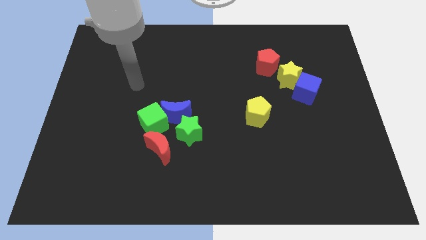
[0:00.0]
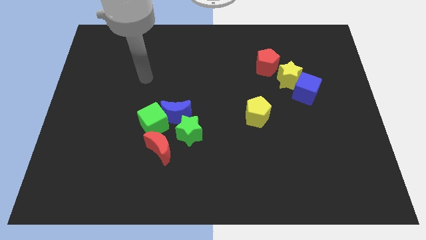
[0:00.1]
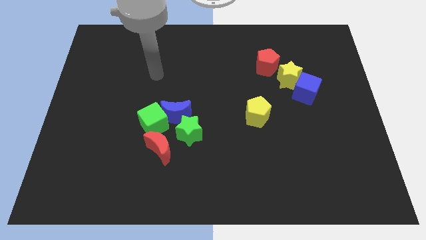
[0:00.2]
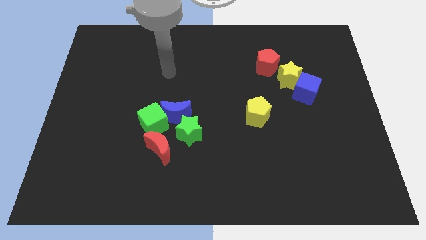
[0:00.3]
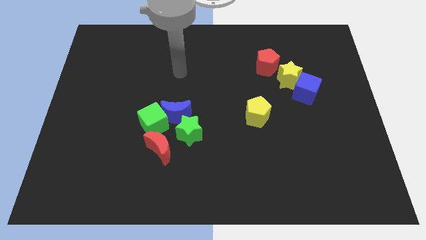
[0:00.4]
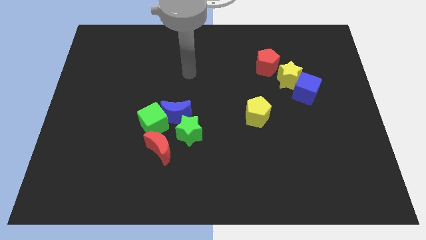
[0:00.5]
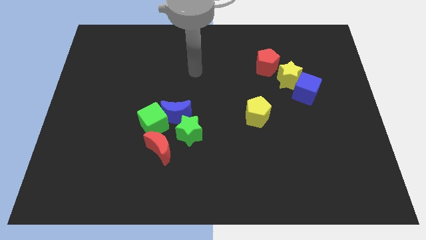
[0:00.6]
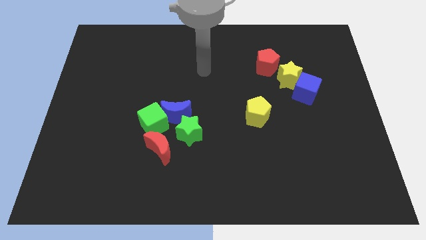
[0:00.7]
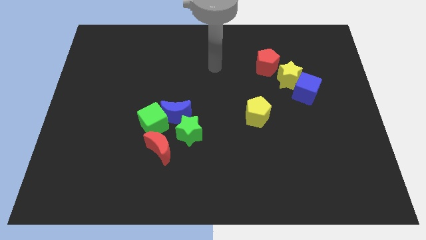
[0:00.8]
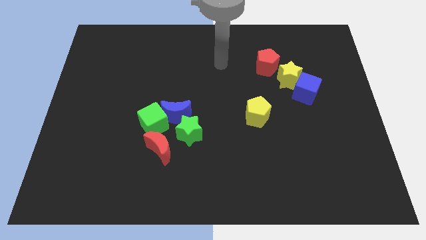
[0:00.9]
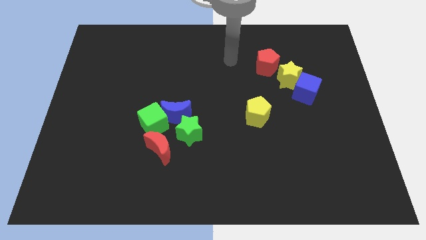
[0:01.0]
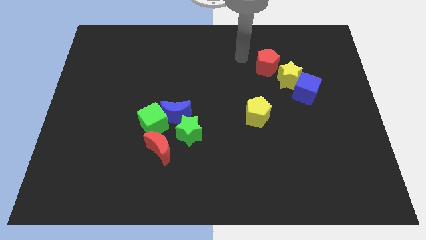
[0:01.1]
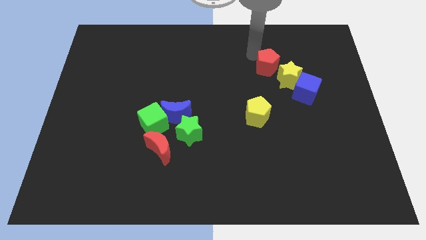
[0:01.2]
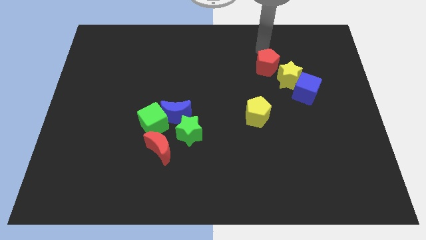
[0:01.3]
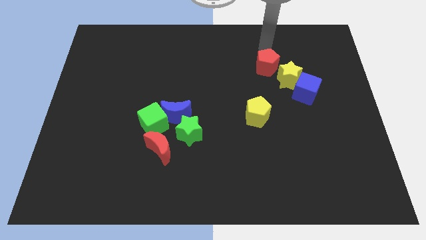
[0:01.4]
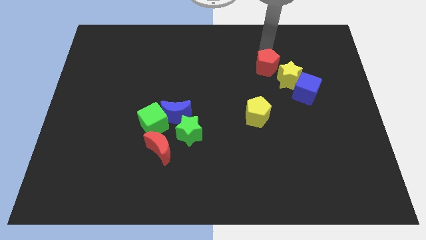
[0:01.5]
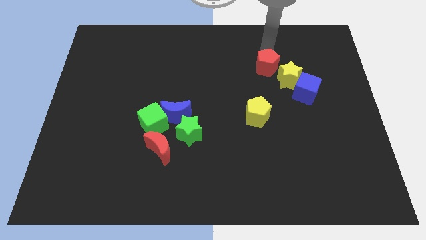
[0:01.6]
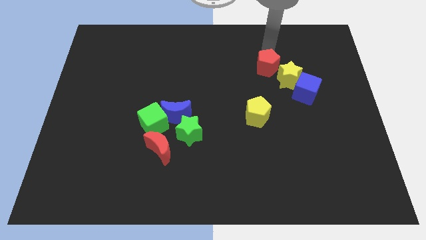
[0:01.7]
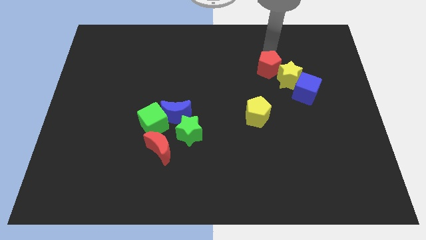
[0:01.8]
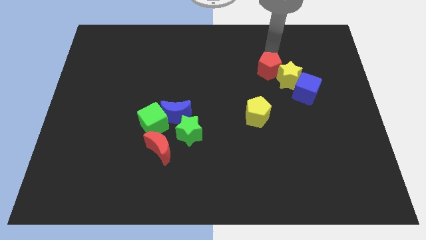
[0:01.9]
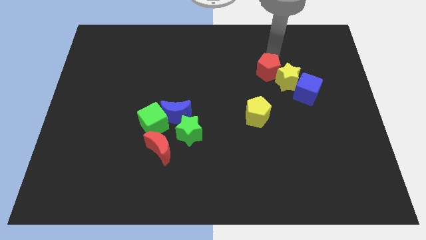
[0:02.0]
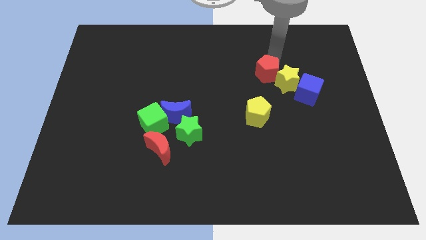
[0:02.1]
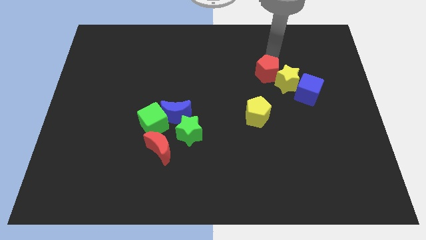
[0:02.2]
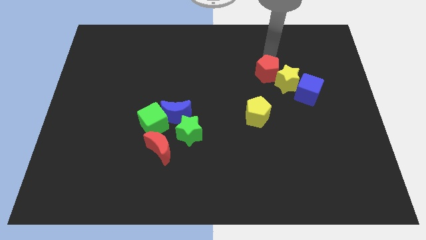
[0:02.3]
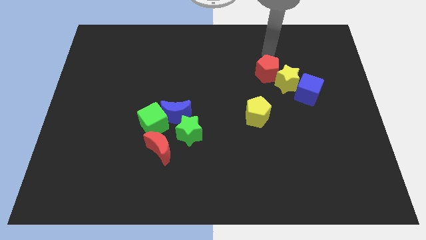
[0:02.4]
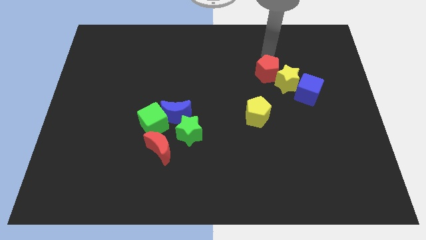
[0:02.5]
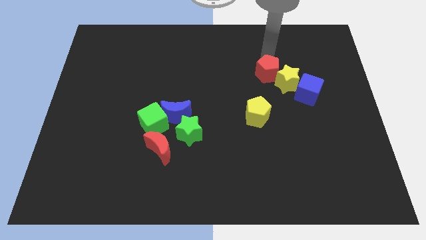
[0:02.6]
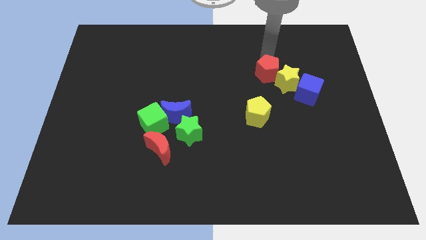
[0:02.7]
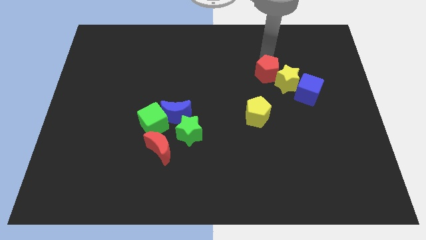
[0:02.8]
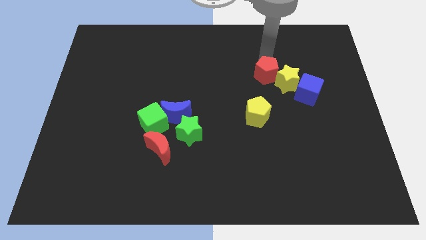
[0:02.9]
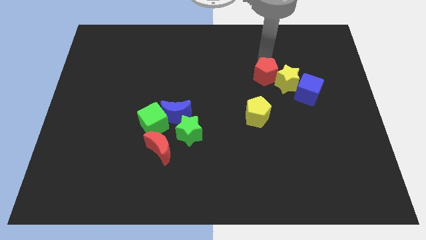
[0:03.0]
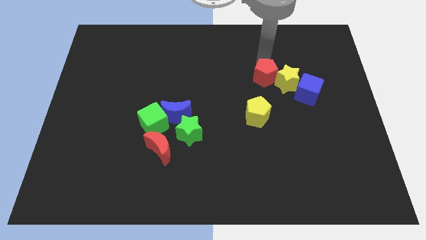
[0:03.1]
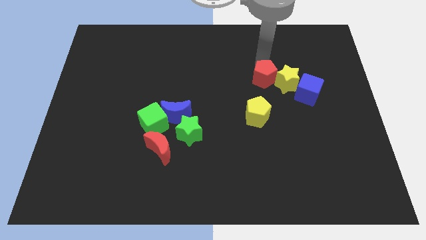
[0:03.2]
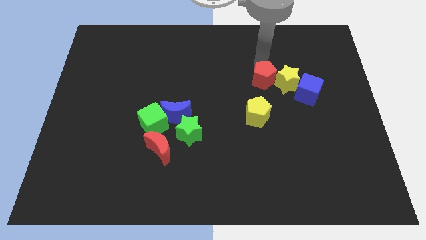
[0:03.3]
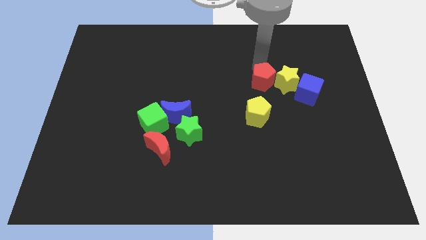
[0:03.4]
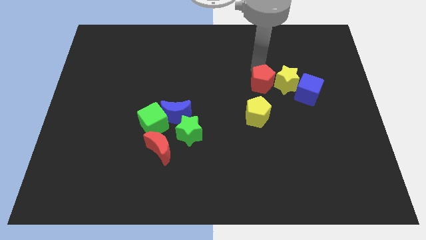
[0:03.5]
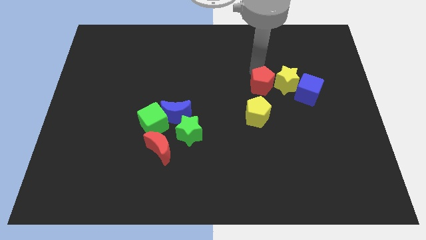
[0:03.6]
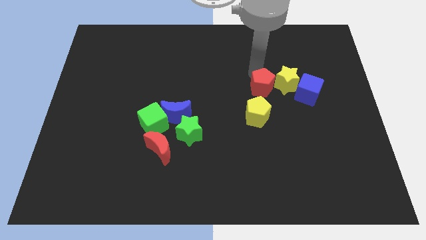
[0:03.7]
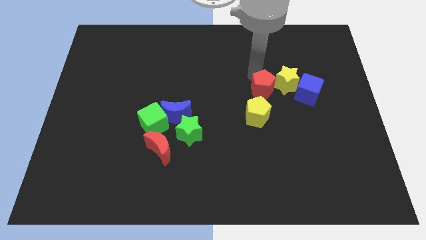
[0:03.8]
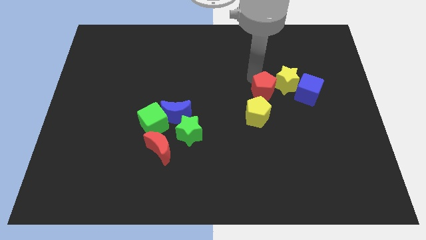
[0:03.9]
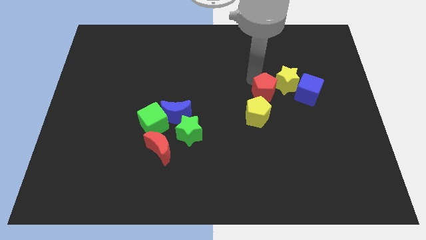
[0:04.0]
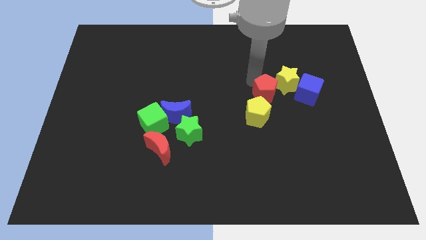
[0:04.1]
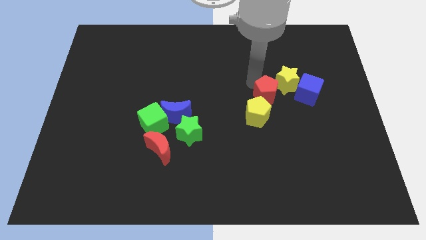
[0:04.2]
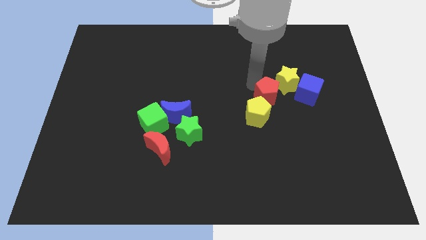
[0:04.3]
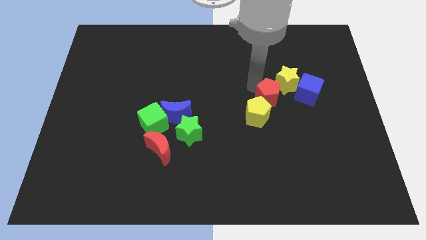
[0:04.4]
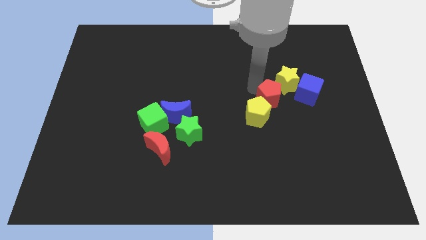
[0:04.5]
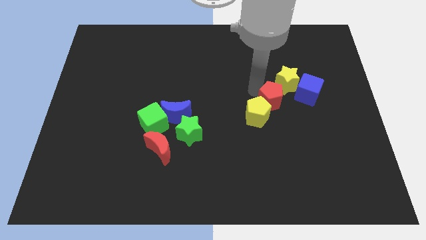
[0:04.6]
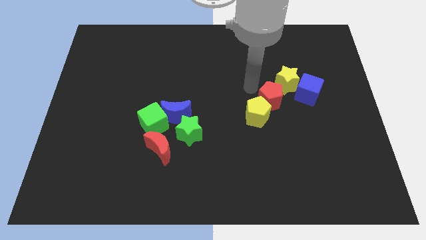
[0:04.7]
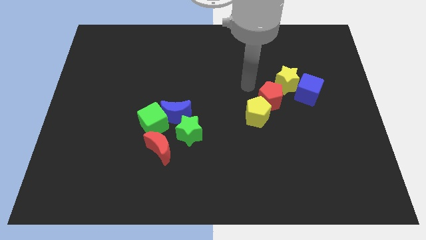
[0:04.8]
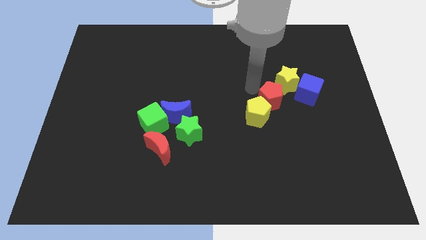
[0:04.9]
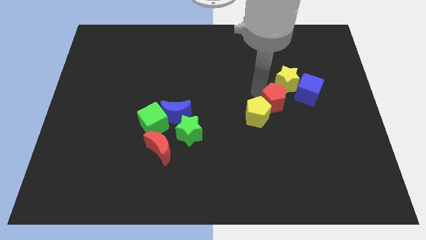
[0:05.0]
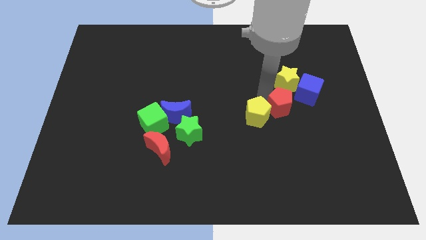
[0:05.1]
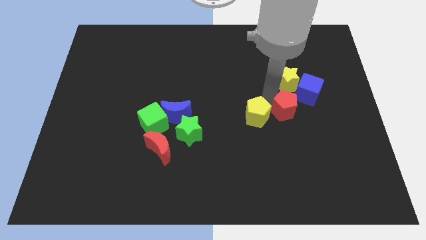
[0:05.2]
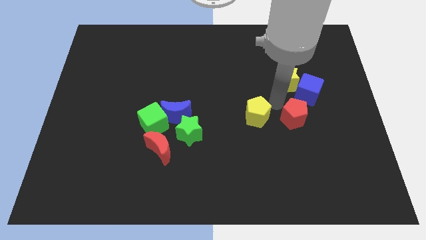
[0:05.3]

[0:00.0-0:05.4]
put the red pentagon below the blue cube

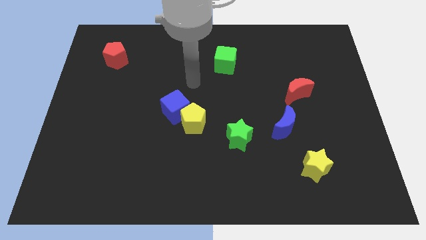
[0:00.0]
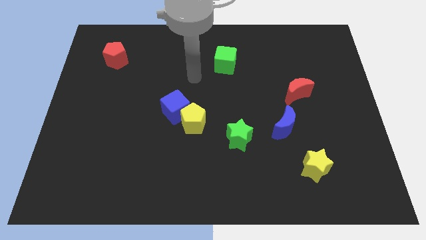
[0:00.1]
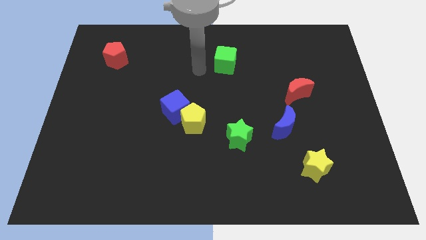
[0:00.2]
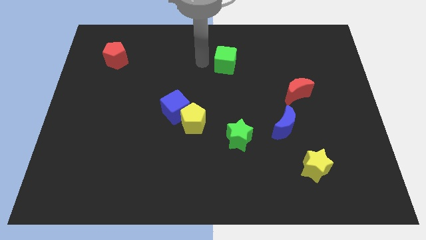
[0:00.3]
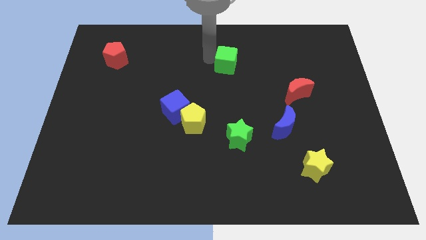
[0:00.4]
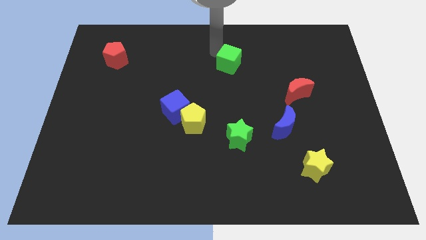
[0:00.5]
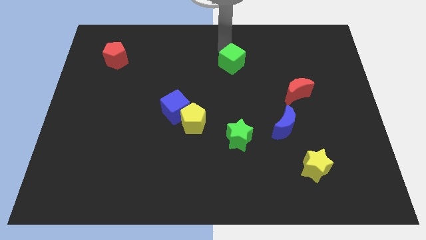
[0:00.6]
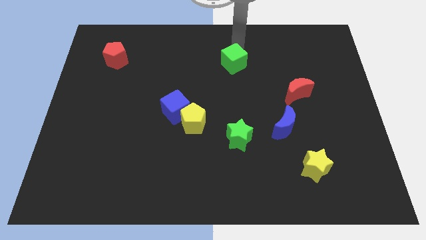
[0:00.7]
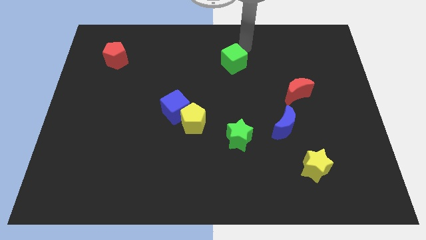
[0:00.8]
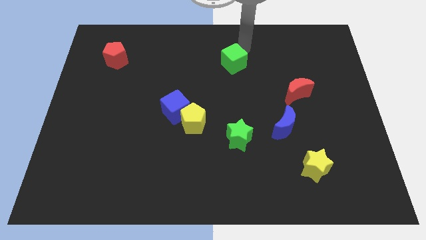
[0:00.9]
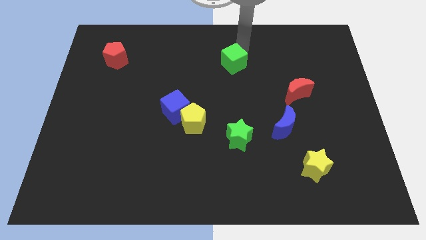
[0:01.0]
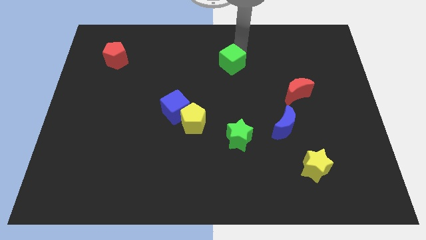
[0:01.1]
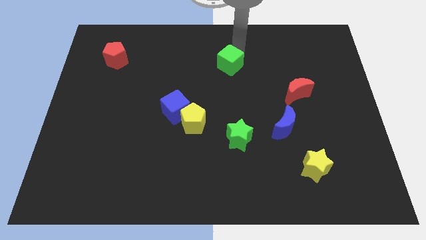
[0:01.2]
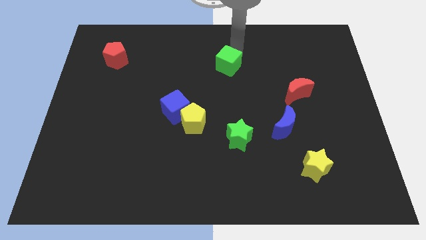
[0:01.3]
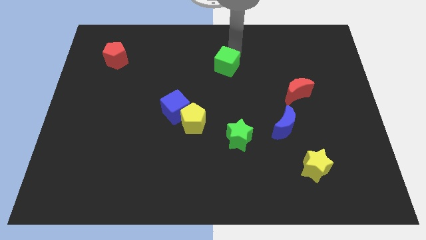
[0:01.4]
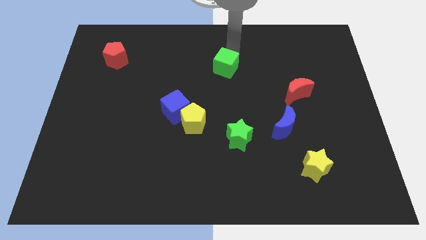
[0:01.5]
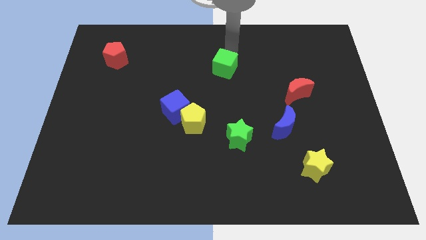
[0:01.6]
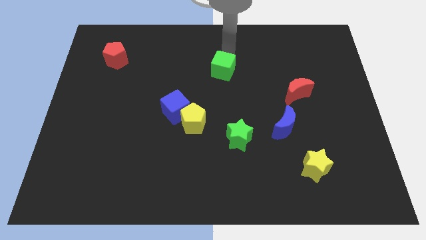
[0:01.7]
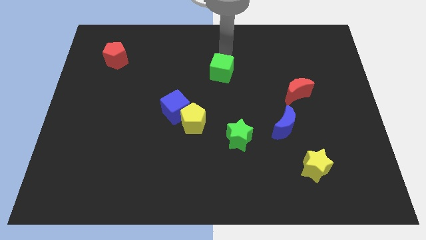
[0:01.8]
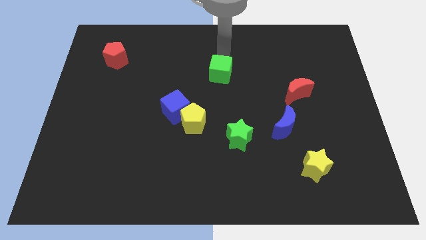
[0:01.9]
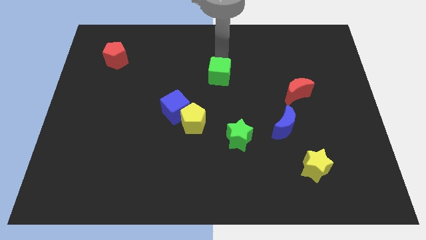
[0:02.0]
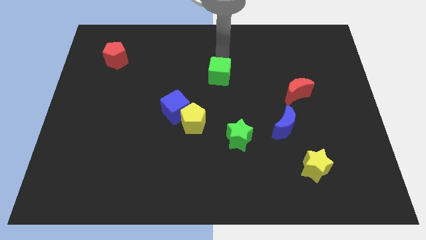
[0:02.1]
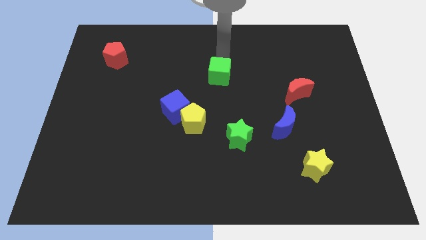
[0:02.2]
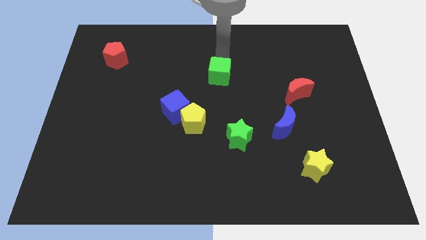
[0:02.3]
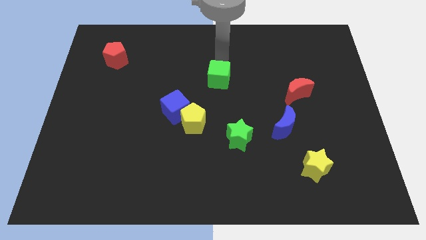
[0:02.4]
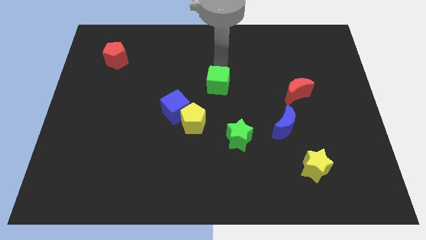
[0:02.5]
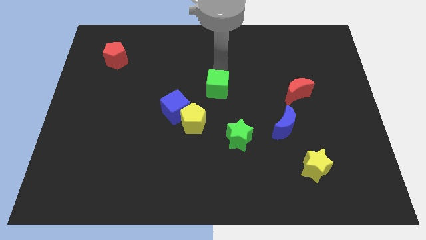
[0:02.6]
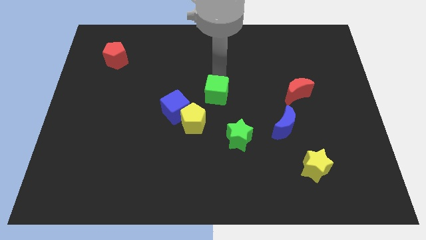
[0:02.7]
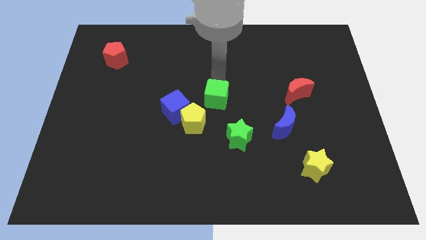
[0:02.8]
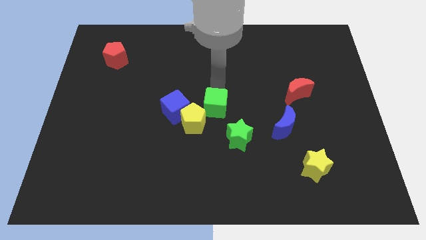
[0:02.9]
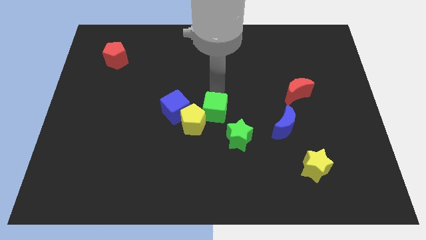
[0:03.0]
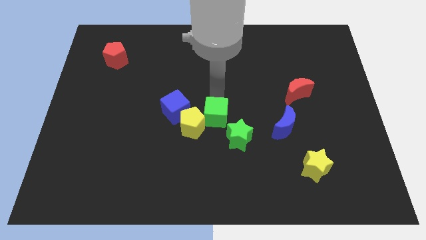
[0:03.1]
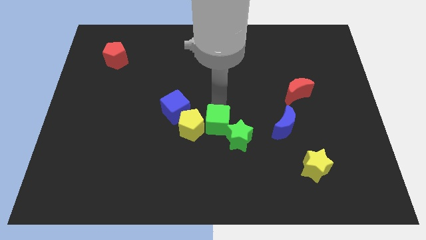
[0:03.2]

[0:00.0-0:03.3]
put the green cube left of the green star
